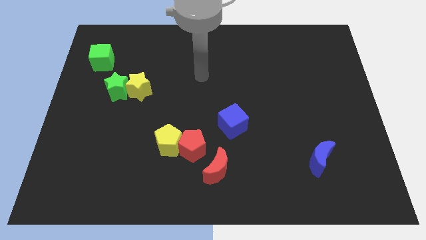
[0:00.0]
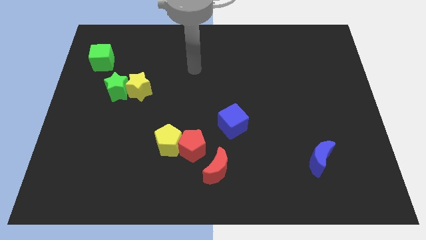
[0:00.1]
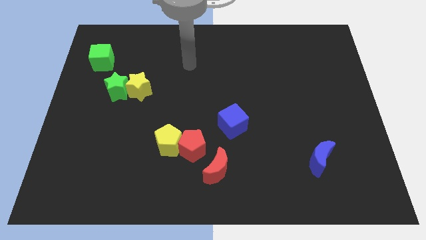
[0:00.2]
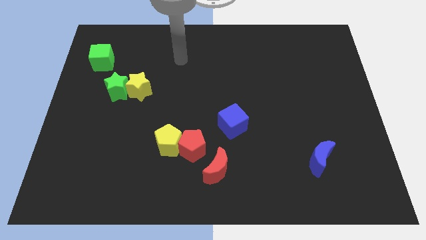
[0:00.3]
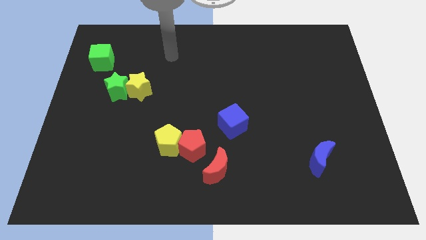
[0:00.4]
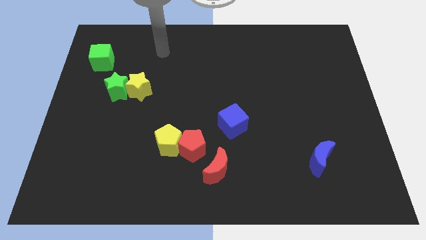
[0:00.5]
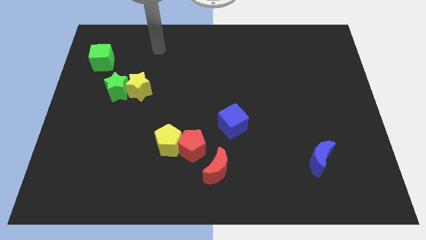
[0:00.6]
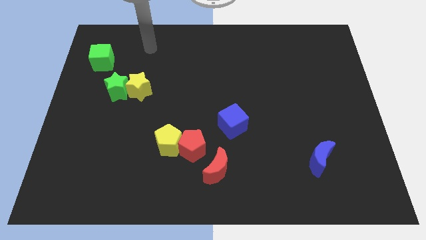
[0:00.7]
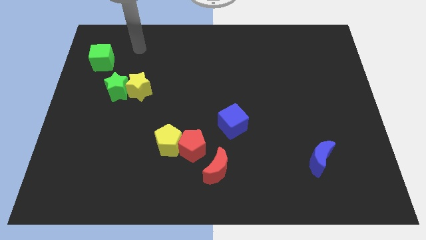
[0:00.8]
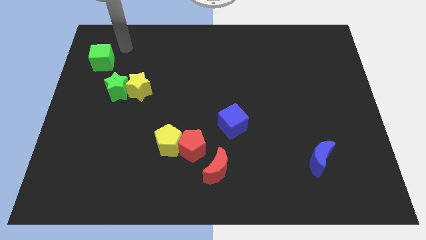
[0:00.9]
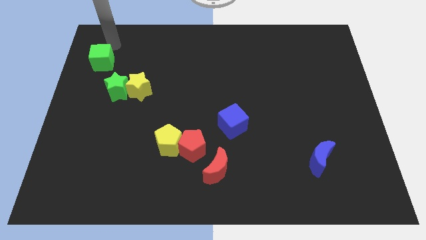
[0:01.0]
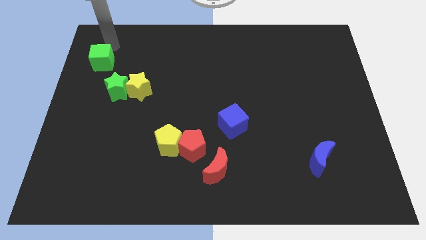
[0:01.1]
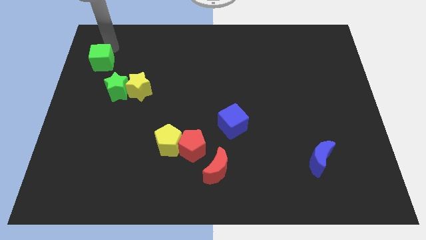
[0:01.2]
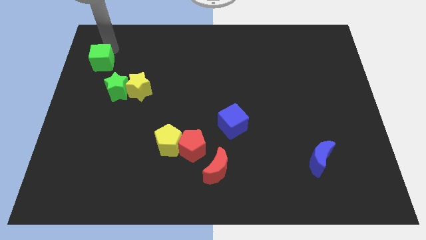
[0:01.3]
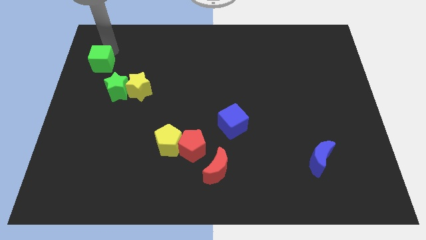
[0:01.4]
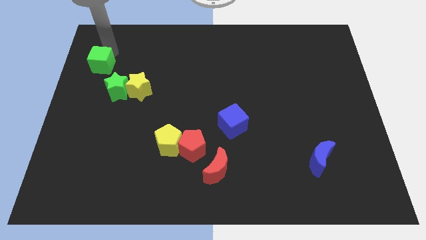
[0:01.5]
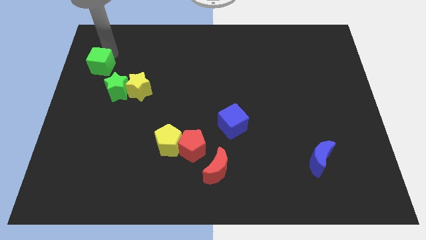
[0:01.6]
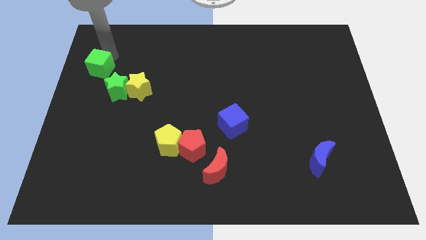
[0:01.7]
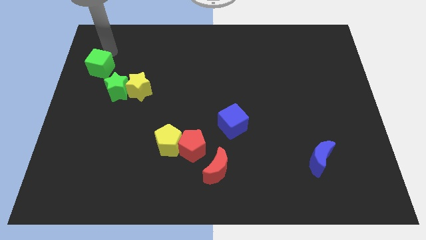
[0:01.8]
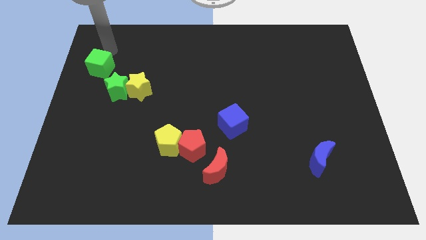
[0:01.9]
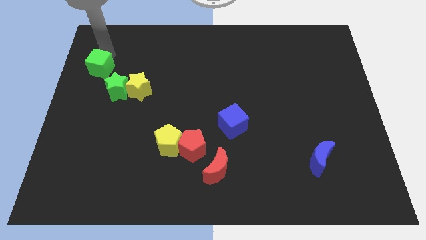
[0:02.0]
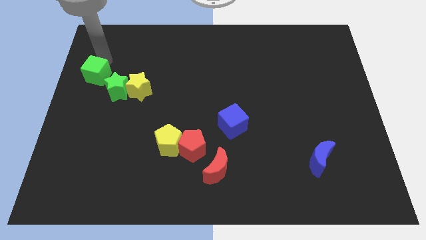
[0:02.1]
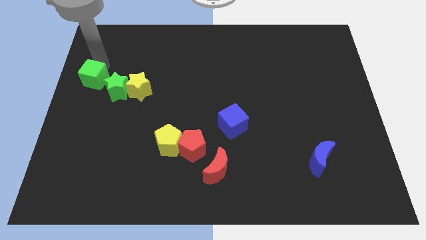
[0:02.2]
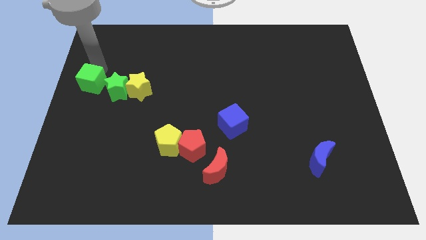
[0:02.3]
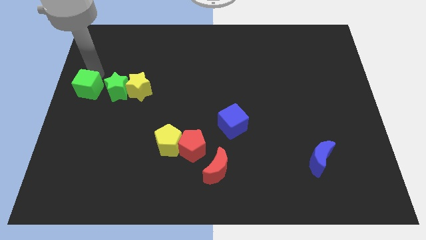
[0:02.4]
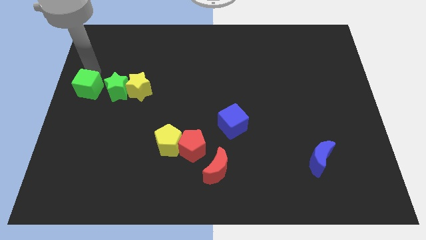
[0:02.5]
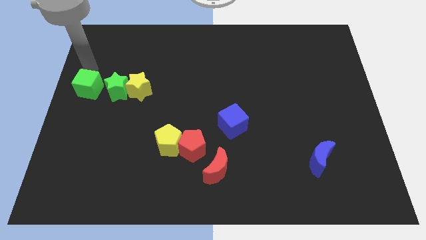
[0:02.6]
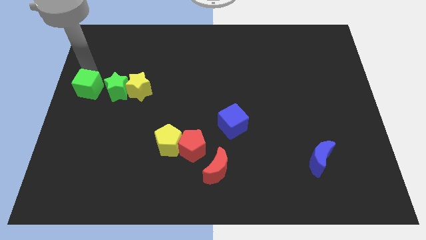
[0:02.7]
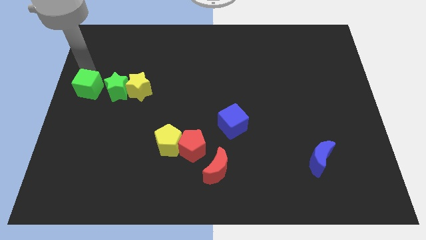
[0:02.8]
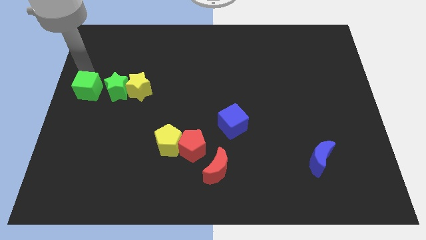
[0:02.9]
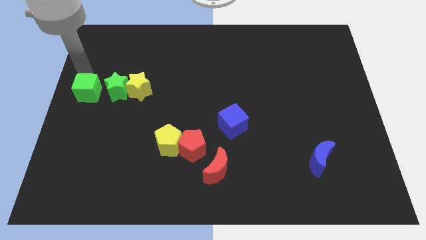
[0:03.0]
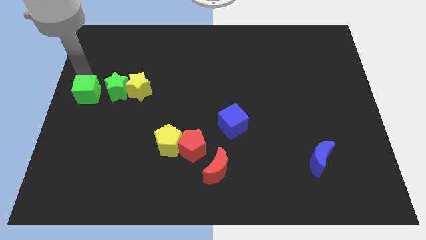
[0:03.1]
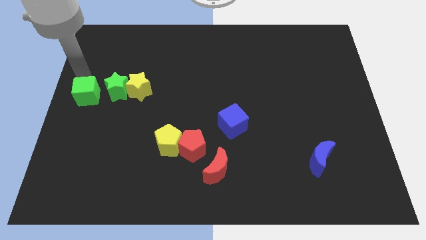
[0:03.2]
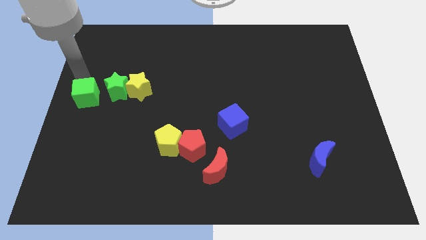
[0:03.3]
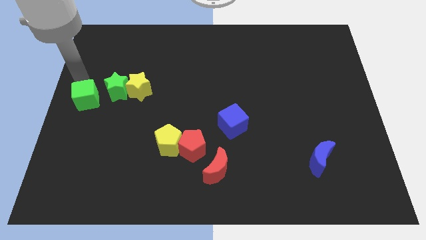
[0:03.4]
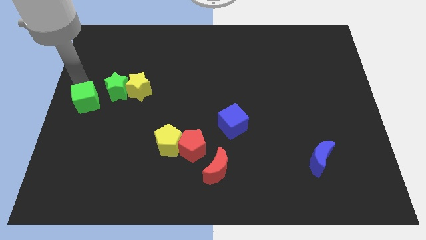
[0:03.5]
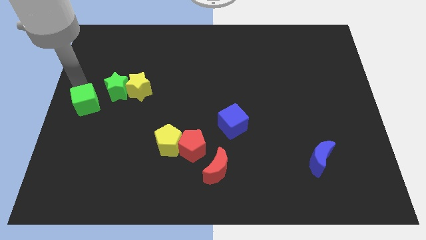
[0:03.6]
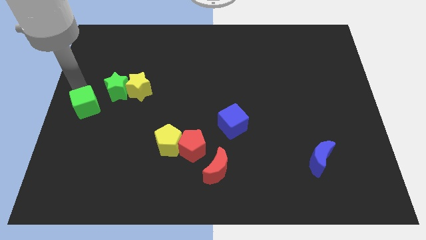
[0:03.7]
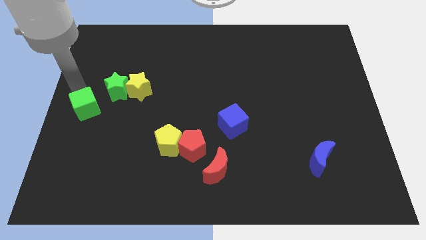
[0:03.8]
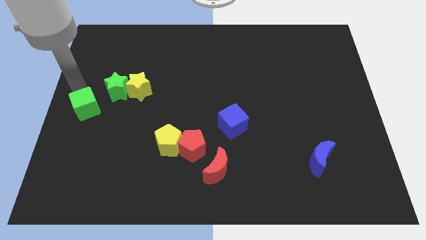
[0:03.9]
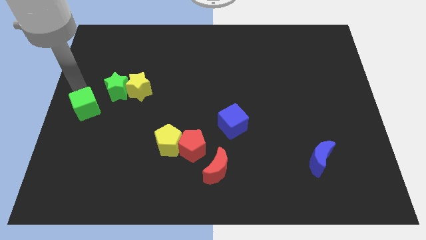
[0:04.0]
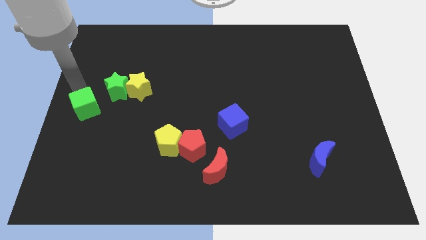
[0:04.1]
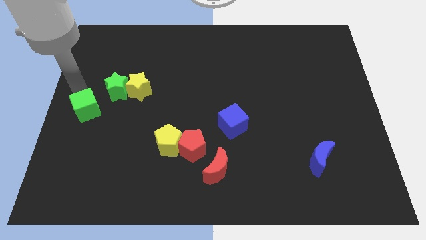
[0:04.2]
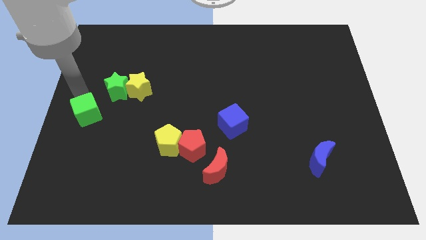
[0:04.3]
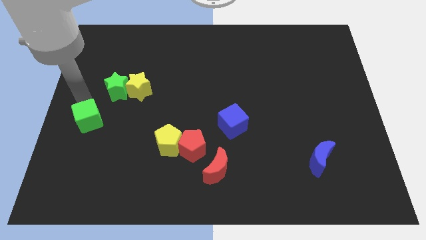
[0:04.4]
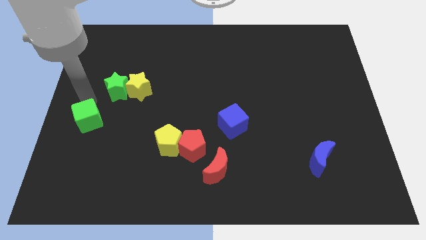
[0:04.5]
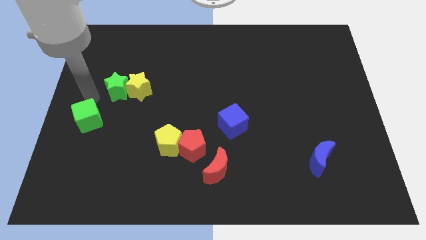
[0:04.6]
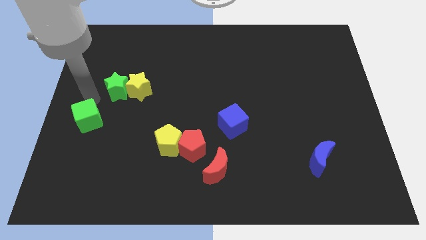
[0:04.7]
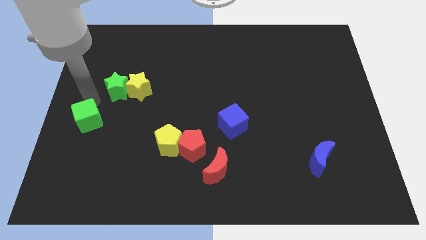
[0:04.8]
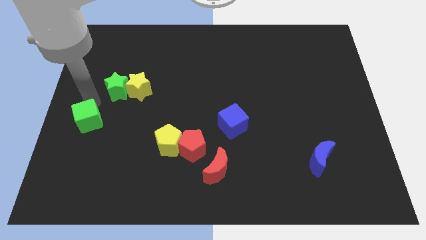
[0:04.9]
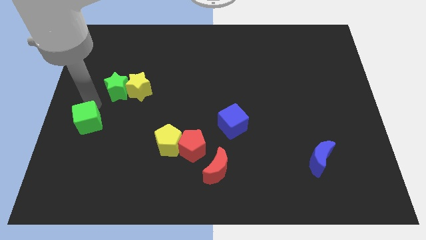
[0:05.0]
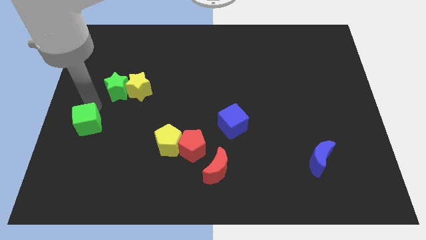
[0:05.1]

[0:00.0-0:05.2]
push the green cube downwards

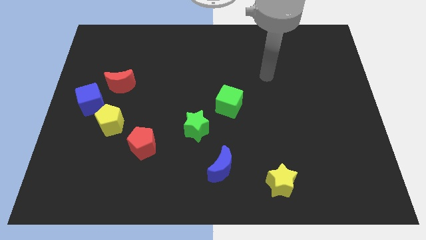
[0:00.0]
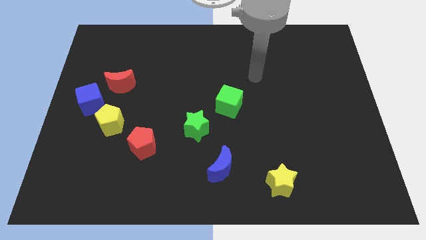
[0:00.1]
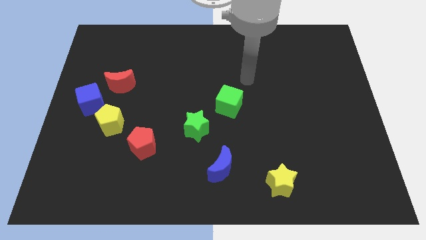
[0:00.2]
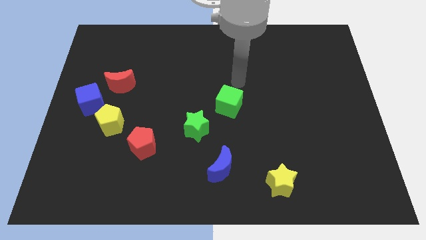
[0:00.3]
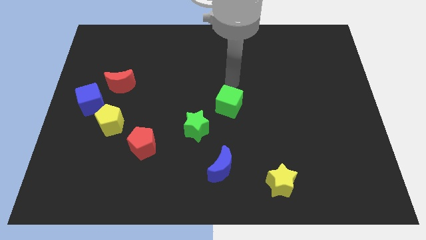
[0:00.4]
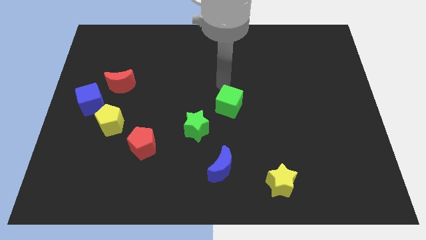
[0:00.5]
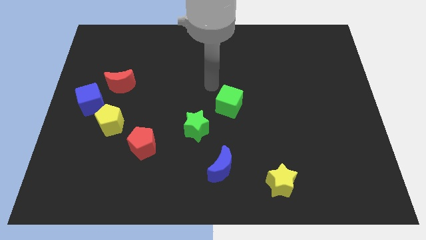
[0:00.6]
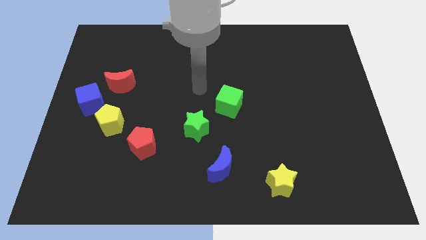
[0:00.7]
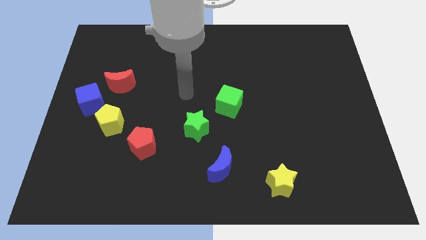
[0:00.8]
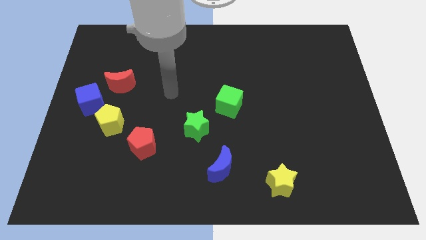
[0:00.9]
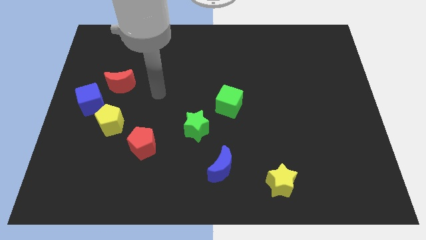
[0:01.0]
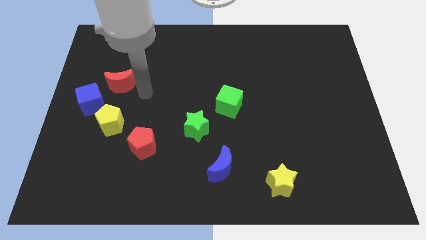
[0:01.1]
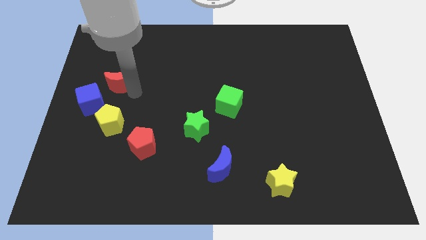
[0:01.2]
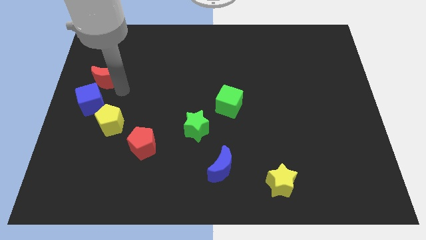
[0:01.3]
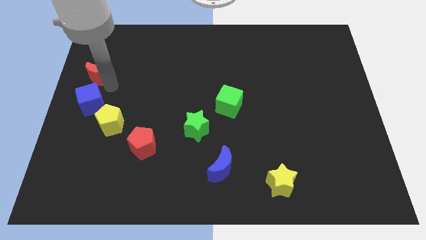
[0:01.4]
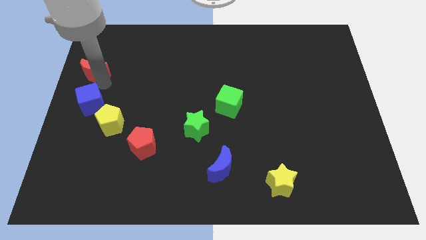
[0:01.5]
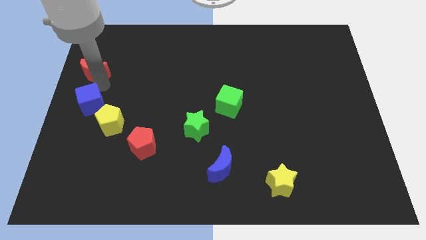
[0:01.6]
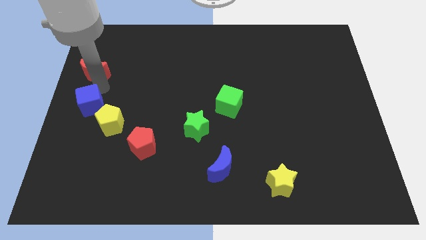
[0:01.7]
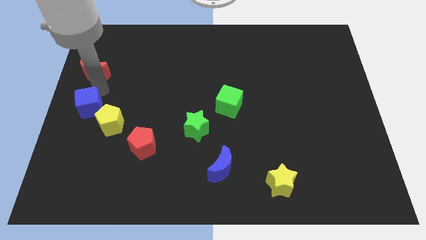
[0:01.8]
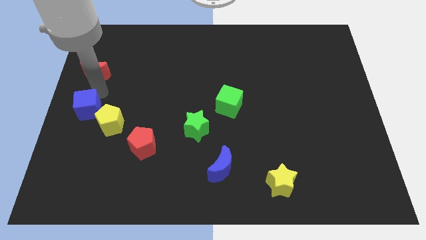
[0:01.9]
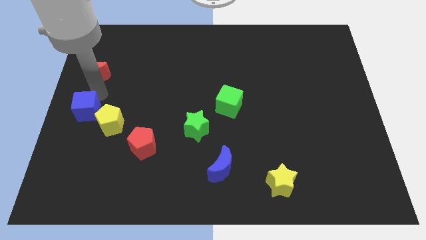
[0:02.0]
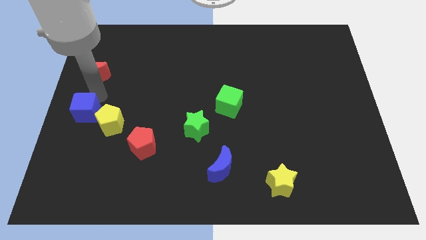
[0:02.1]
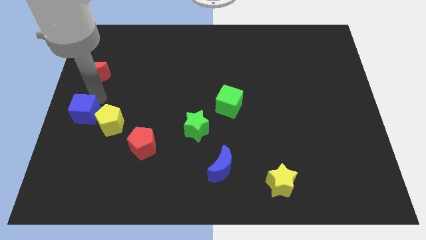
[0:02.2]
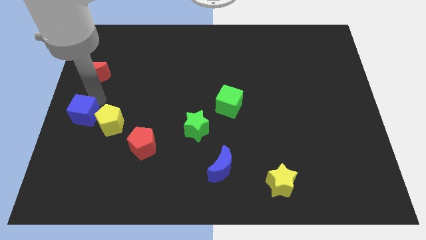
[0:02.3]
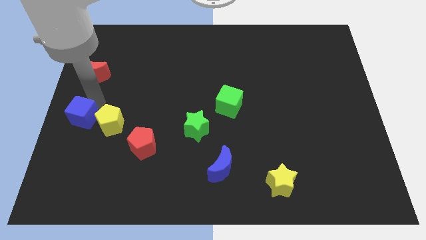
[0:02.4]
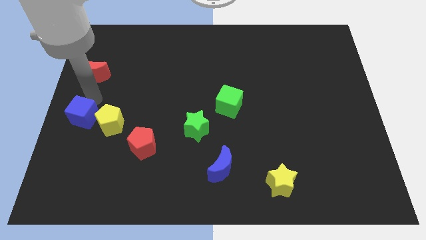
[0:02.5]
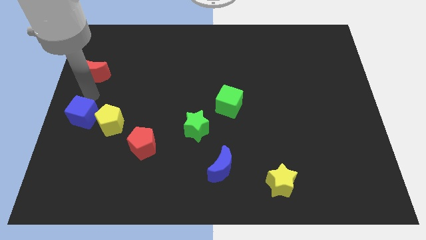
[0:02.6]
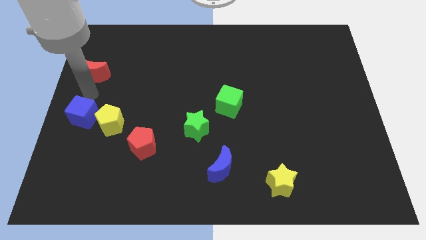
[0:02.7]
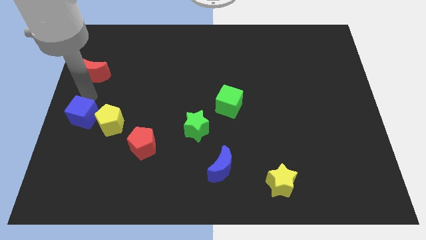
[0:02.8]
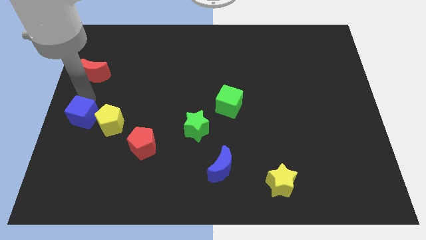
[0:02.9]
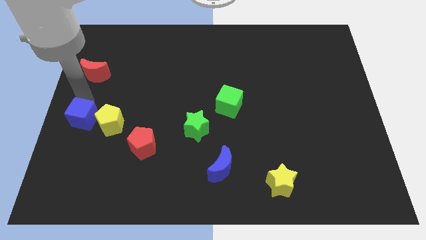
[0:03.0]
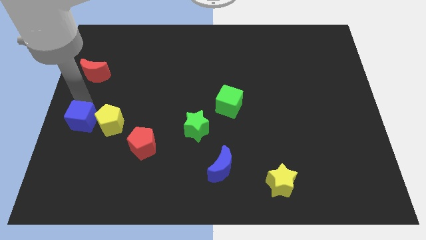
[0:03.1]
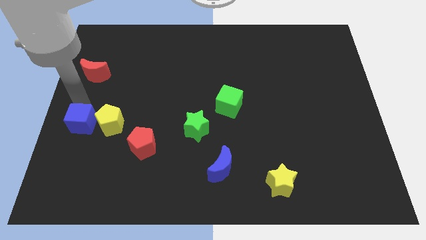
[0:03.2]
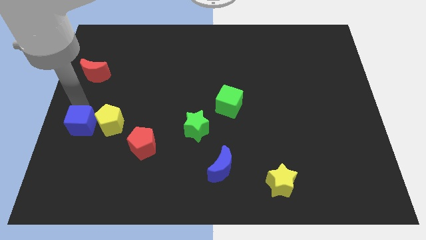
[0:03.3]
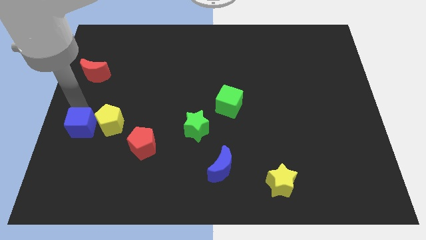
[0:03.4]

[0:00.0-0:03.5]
slightly move the blue cube downwards
